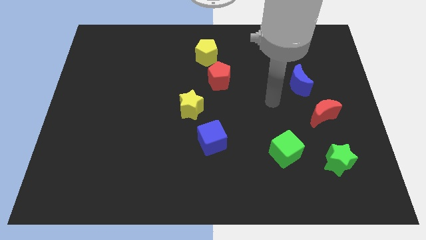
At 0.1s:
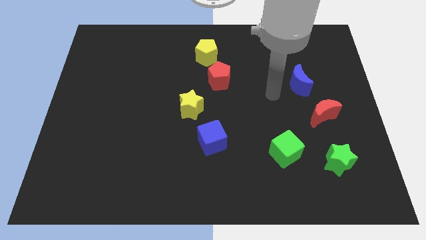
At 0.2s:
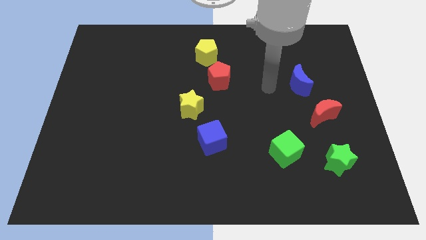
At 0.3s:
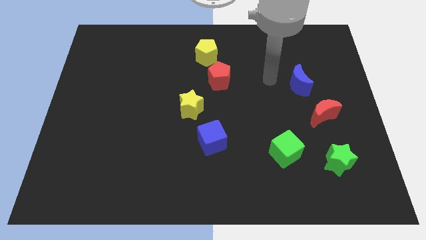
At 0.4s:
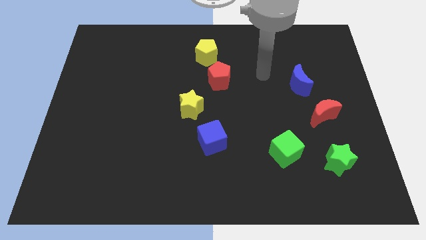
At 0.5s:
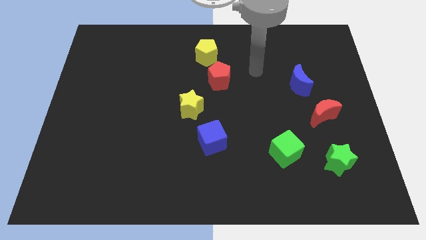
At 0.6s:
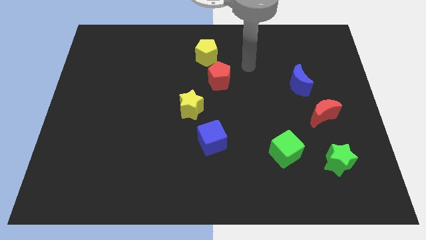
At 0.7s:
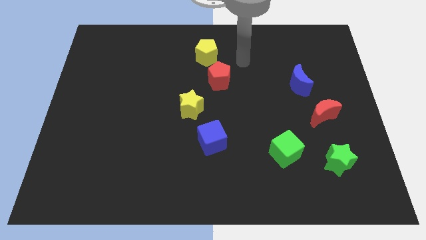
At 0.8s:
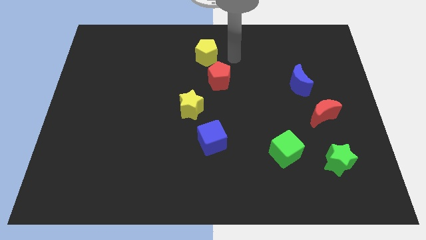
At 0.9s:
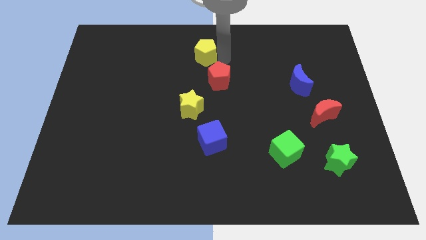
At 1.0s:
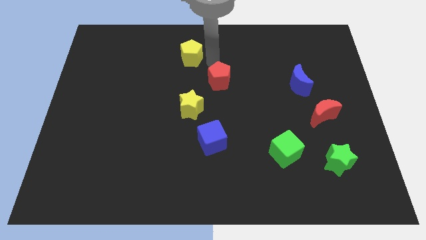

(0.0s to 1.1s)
separate the red pentagon from the yellow pentagon

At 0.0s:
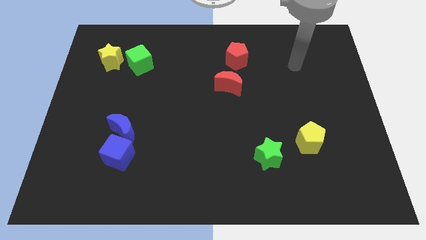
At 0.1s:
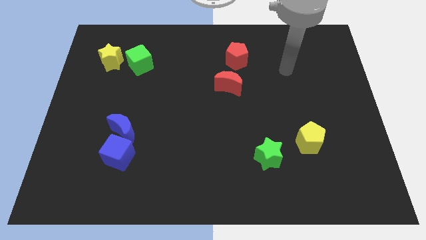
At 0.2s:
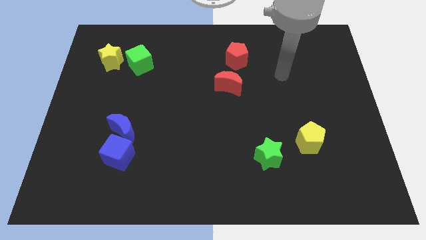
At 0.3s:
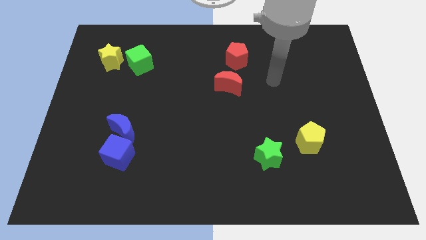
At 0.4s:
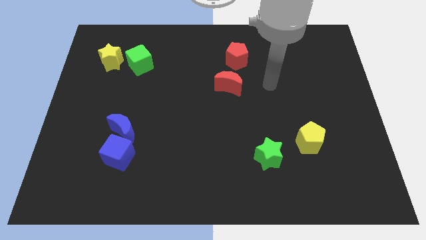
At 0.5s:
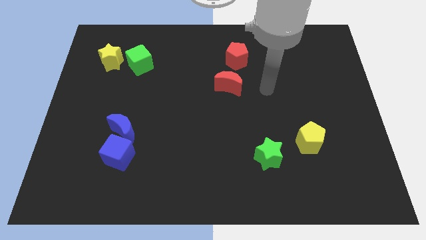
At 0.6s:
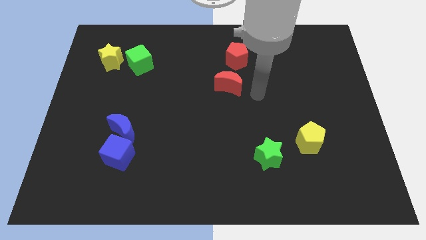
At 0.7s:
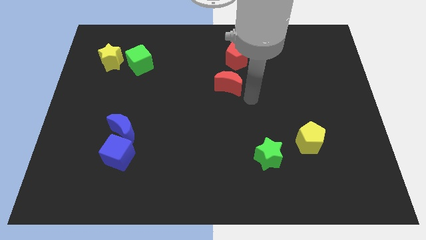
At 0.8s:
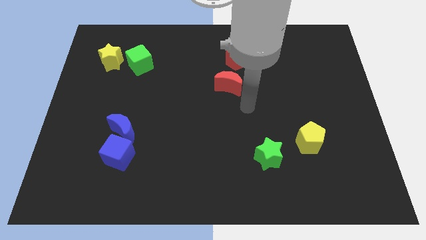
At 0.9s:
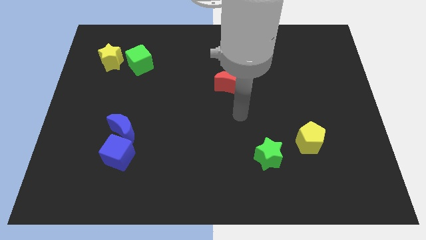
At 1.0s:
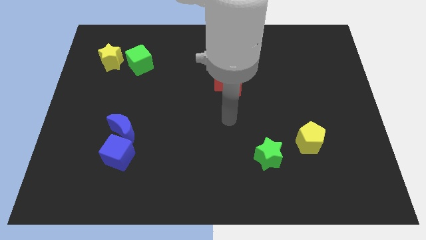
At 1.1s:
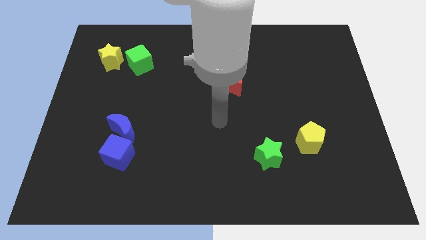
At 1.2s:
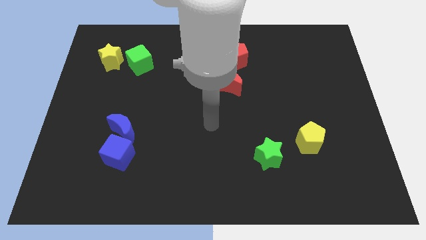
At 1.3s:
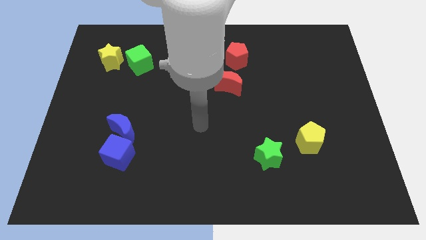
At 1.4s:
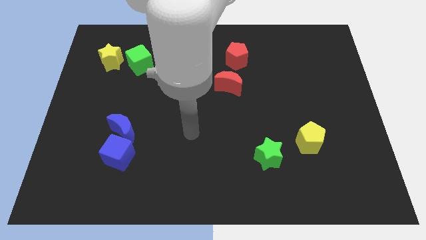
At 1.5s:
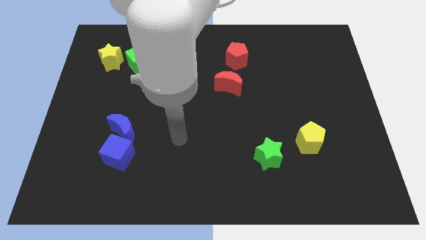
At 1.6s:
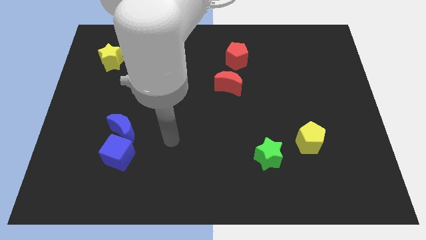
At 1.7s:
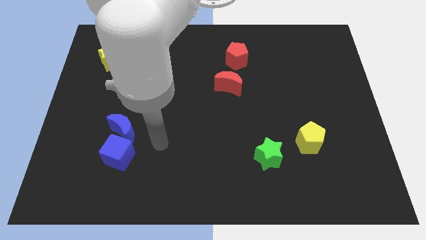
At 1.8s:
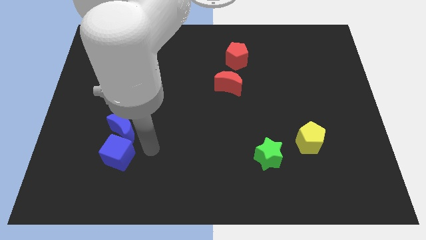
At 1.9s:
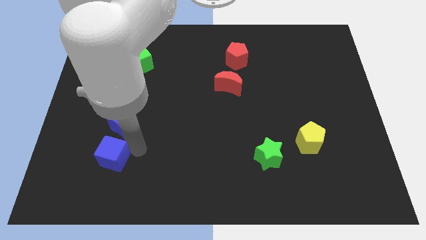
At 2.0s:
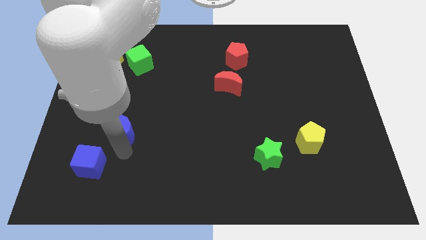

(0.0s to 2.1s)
separate the blue moon from the blue cube

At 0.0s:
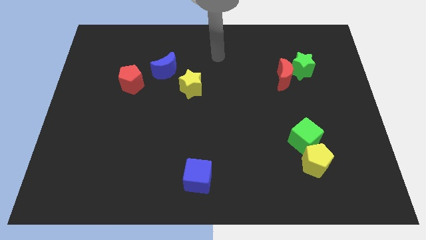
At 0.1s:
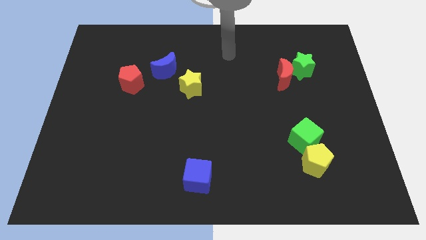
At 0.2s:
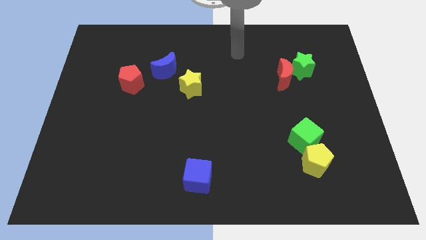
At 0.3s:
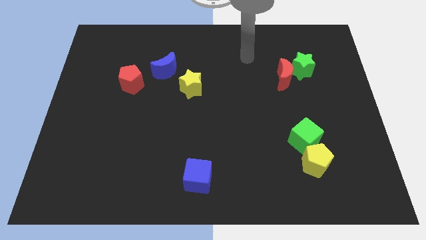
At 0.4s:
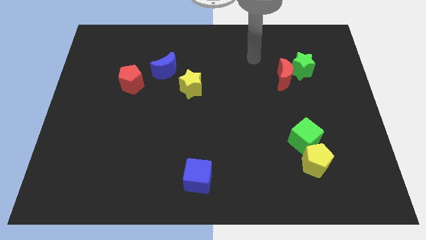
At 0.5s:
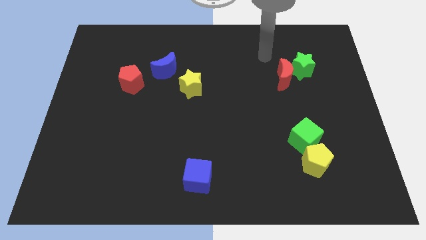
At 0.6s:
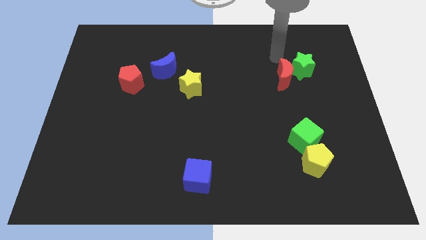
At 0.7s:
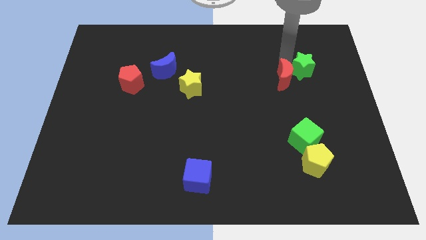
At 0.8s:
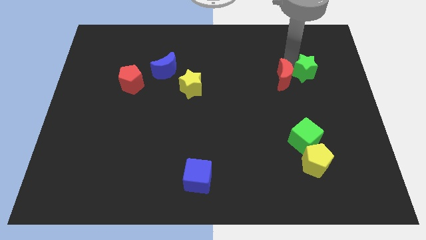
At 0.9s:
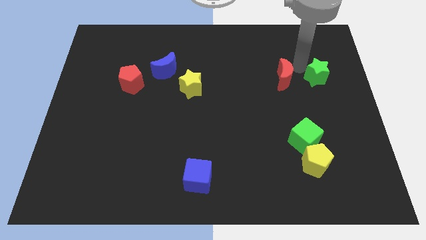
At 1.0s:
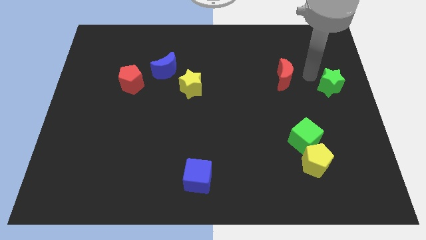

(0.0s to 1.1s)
move the red moon away from the green star

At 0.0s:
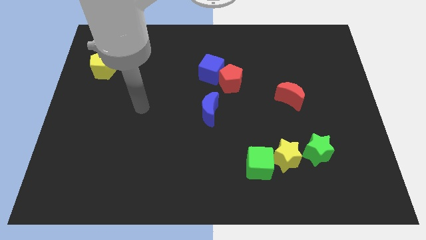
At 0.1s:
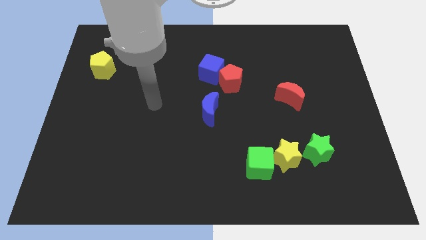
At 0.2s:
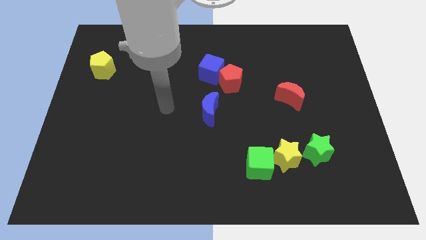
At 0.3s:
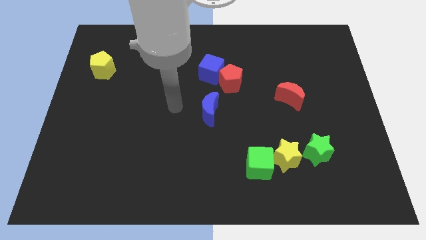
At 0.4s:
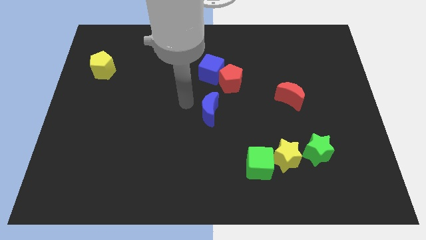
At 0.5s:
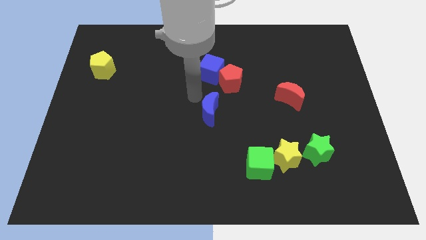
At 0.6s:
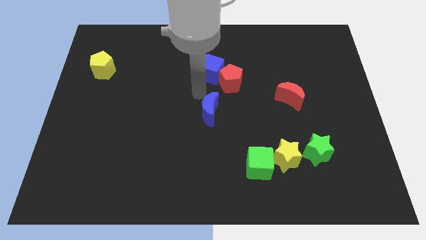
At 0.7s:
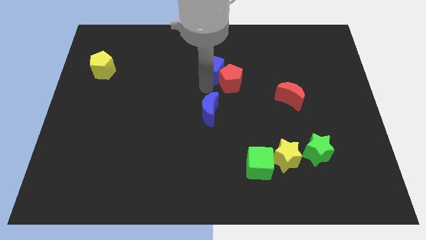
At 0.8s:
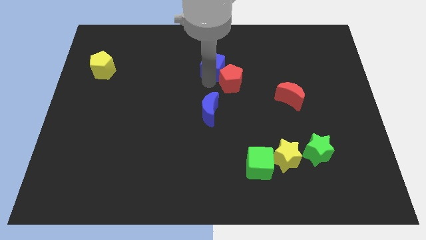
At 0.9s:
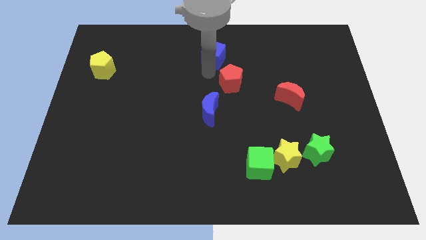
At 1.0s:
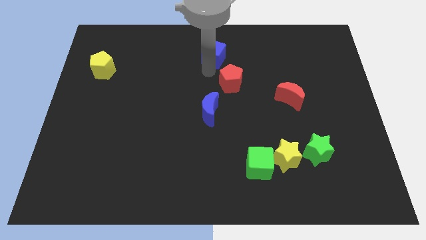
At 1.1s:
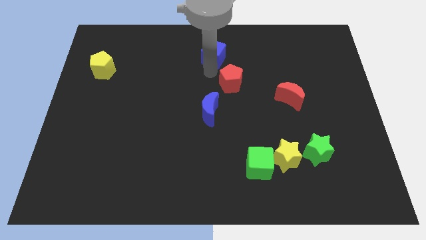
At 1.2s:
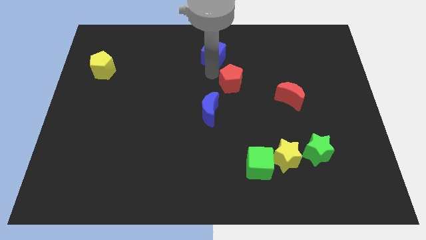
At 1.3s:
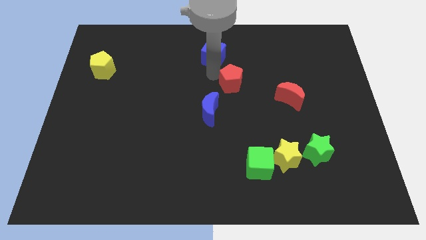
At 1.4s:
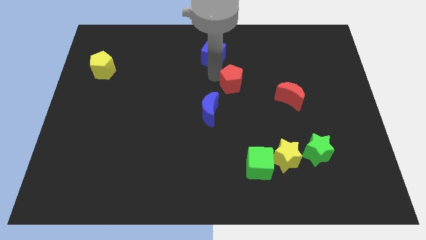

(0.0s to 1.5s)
pull the red pentagon apart from the blue cube

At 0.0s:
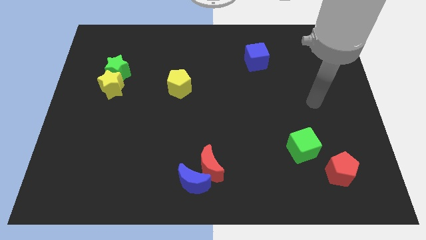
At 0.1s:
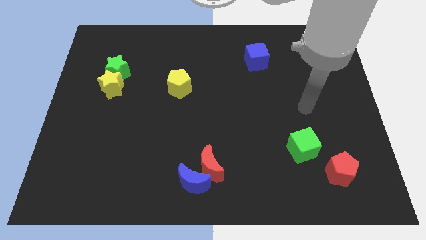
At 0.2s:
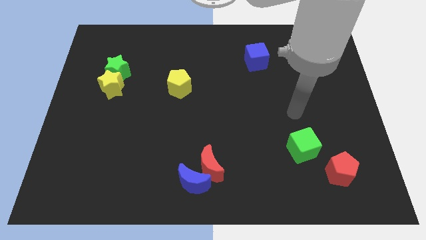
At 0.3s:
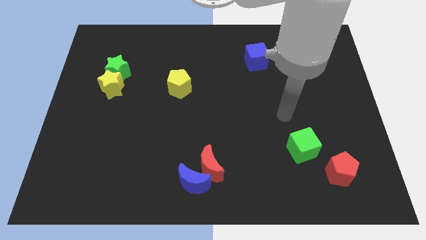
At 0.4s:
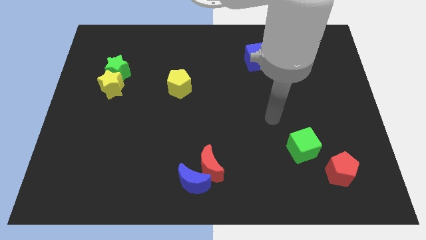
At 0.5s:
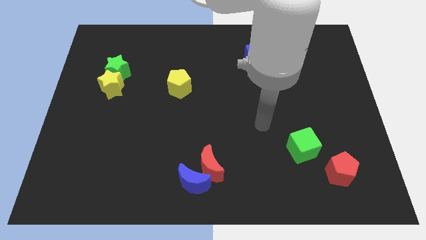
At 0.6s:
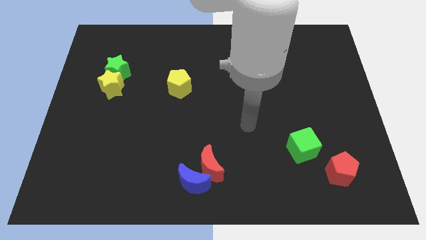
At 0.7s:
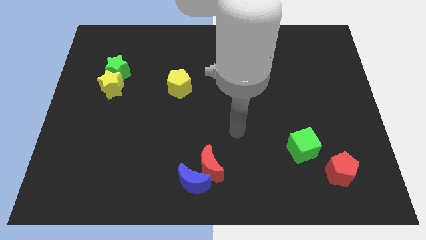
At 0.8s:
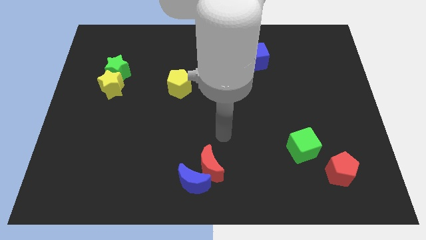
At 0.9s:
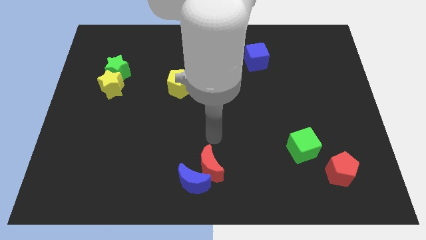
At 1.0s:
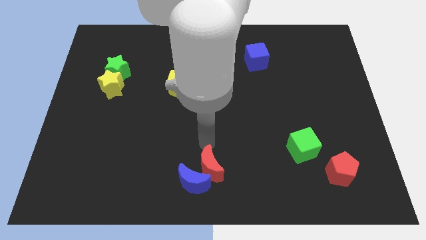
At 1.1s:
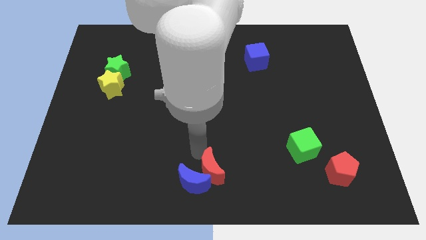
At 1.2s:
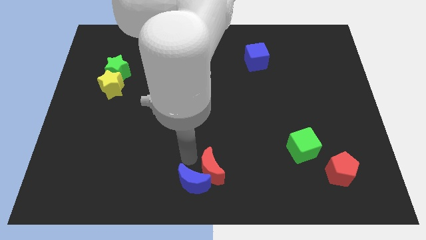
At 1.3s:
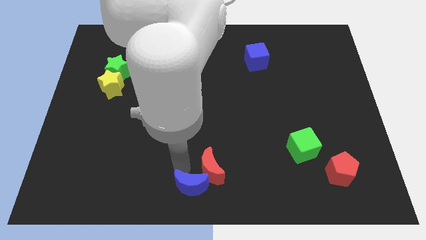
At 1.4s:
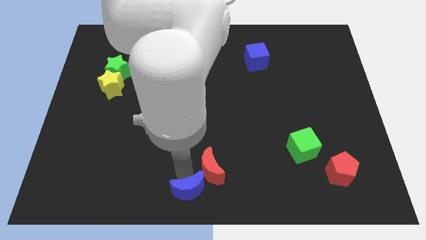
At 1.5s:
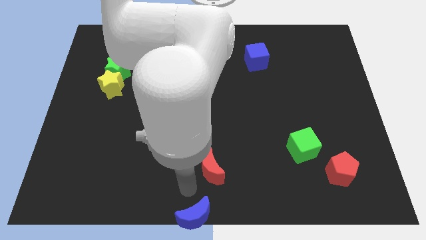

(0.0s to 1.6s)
pull the red moon apart from the blue moon

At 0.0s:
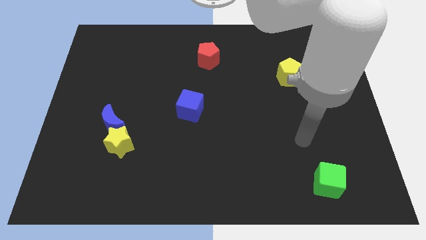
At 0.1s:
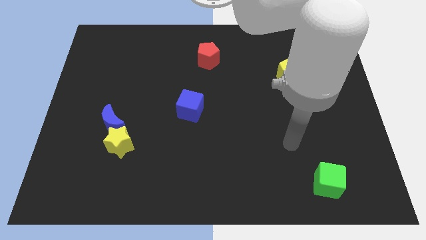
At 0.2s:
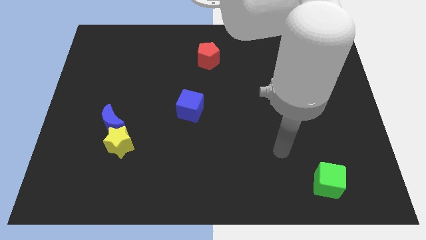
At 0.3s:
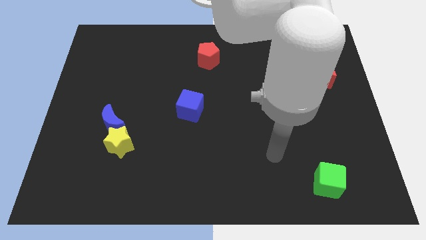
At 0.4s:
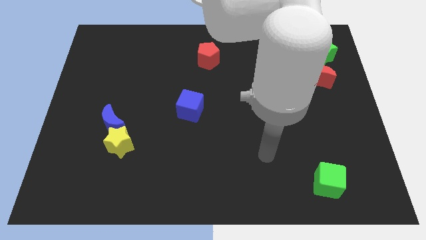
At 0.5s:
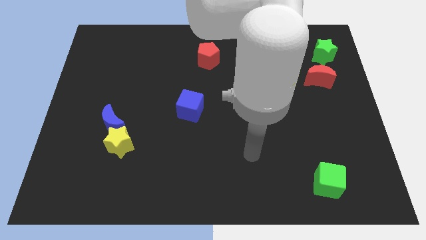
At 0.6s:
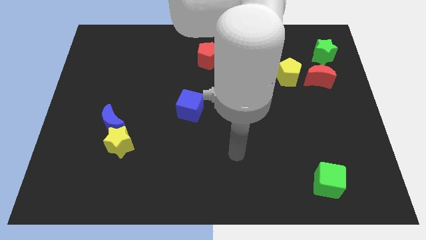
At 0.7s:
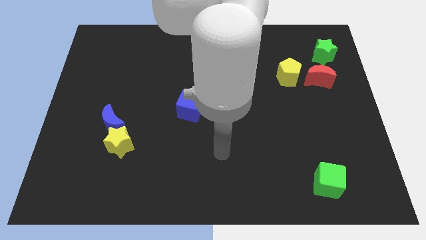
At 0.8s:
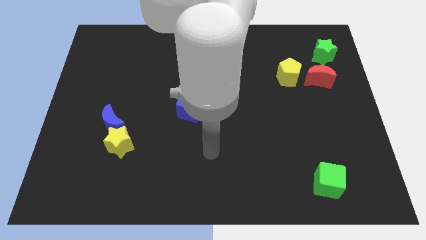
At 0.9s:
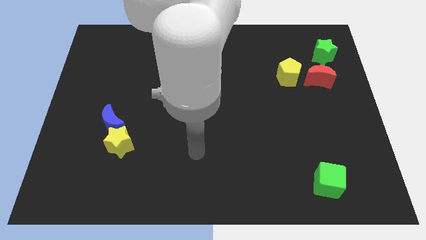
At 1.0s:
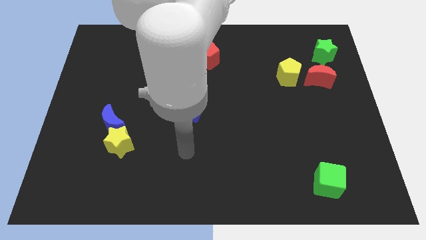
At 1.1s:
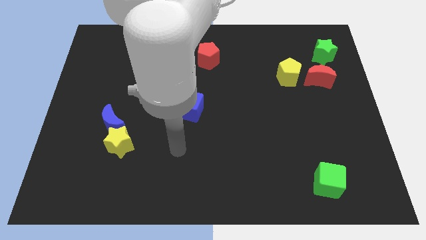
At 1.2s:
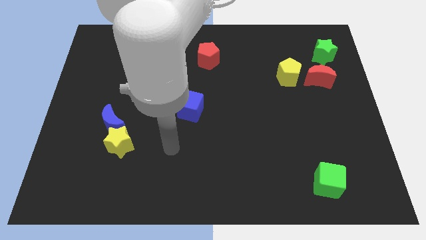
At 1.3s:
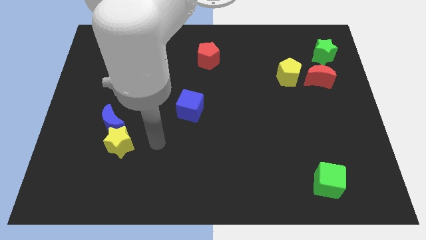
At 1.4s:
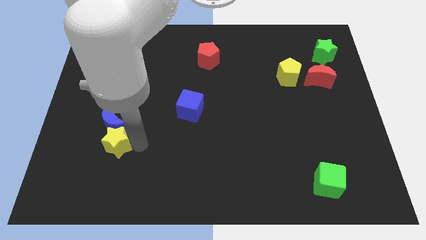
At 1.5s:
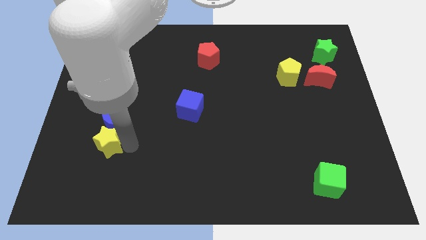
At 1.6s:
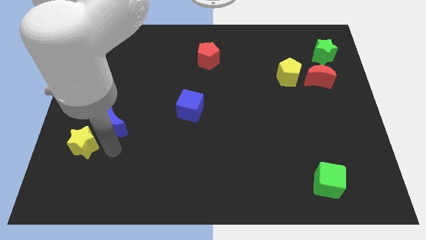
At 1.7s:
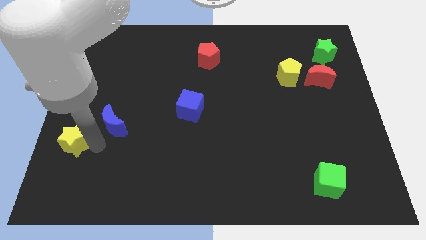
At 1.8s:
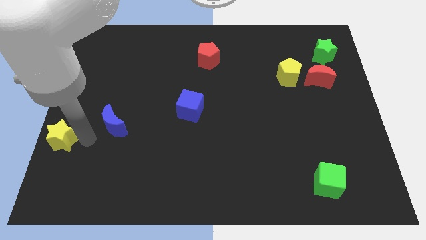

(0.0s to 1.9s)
pull the blue moon apart from the yellow star

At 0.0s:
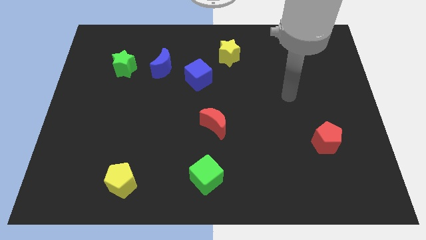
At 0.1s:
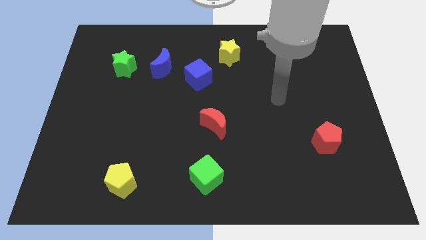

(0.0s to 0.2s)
separate the blue cube from the blue moon
